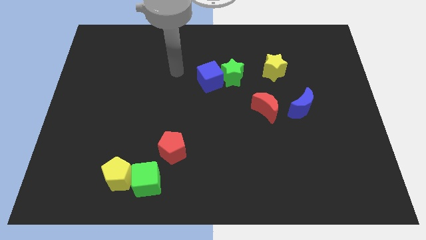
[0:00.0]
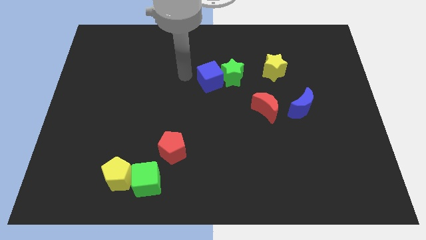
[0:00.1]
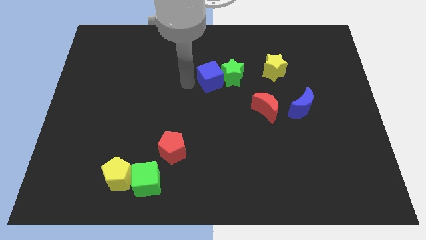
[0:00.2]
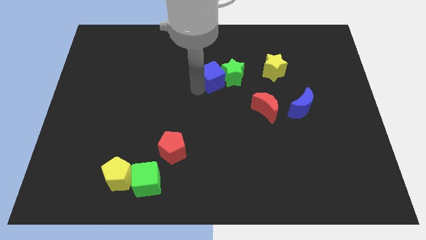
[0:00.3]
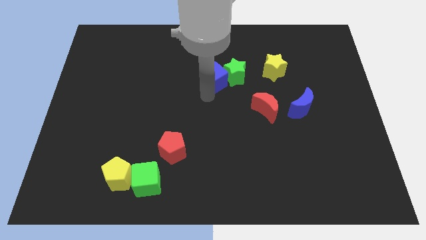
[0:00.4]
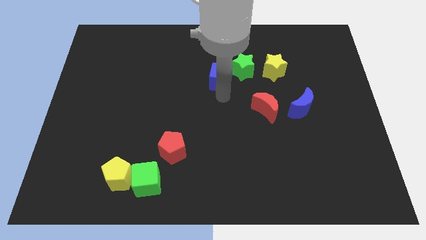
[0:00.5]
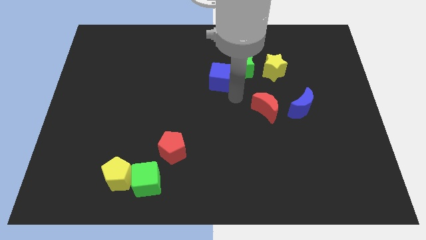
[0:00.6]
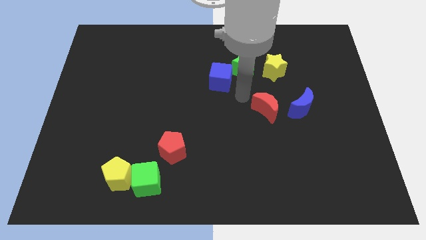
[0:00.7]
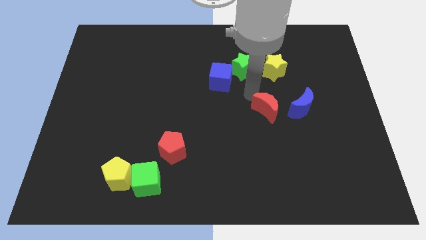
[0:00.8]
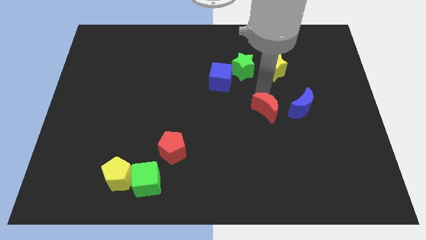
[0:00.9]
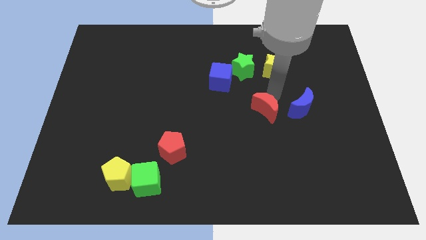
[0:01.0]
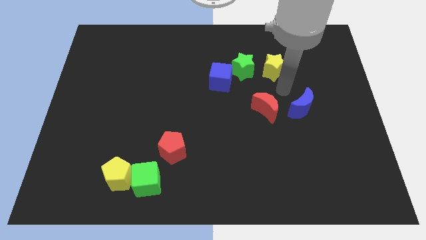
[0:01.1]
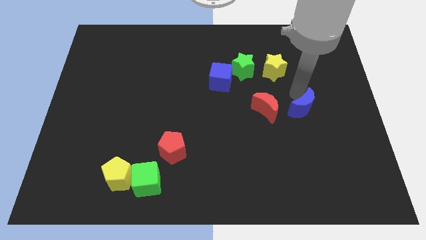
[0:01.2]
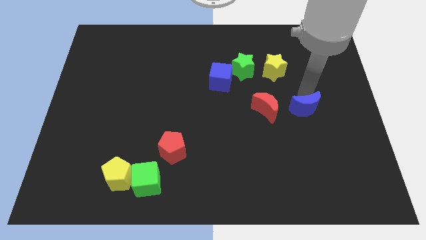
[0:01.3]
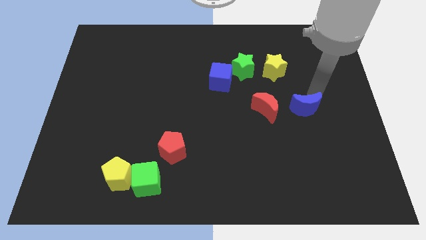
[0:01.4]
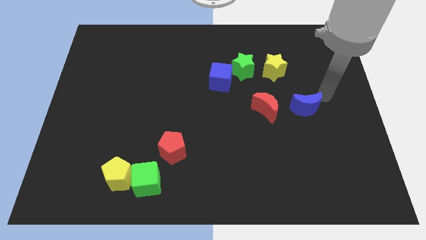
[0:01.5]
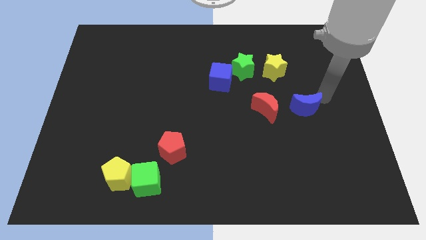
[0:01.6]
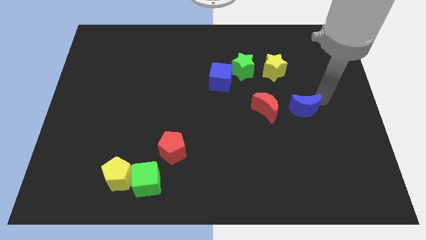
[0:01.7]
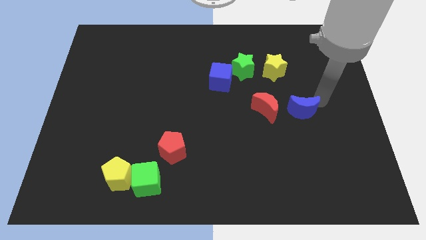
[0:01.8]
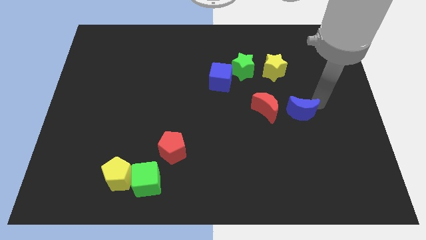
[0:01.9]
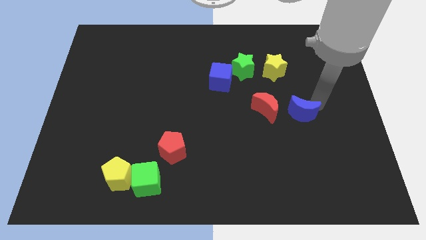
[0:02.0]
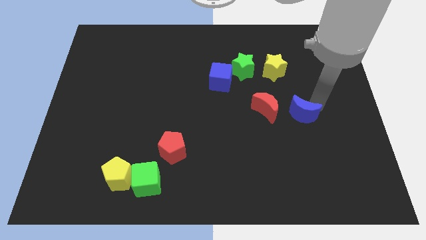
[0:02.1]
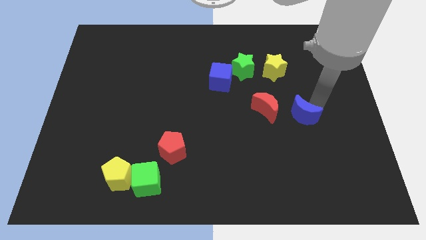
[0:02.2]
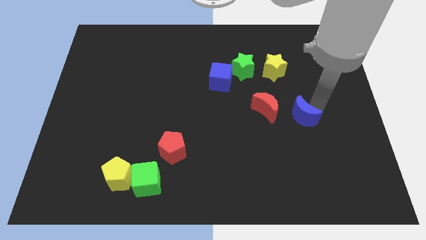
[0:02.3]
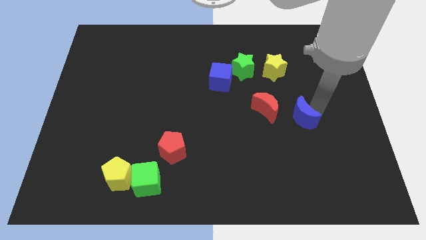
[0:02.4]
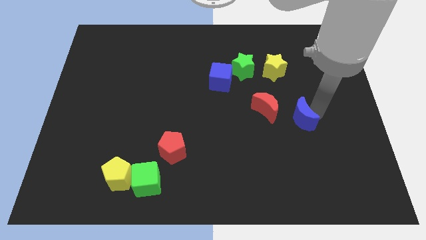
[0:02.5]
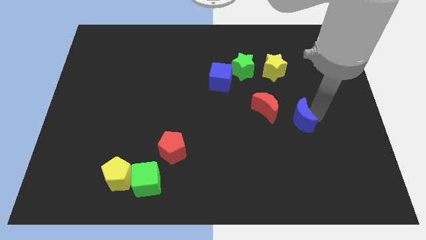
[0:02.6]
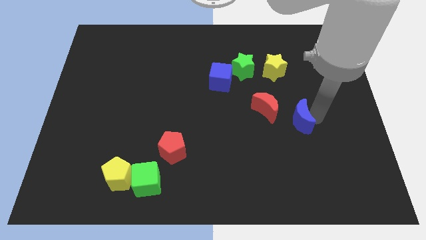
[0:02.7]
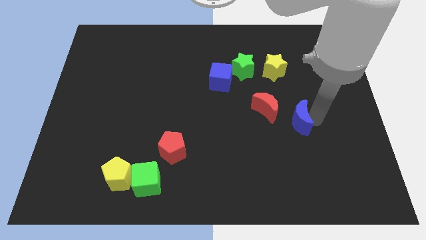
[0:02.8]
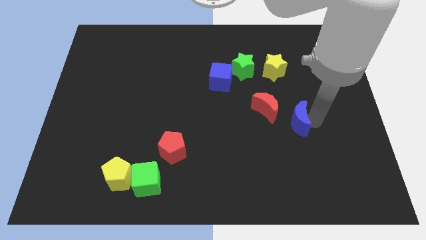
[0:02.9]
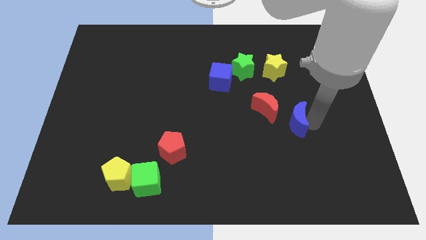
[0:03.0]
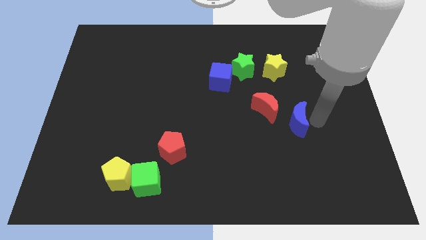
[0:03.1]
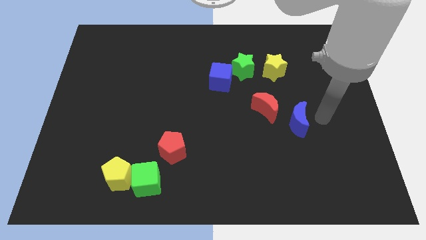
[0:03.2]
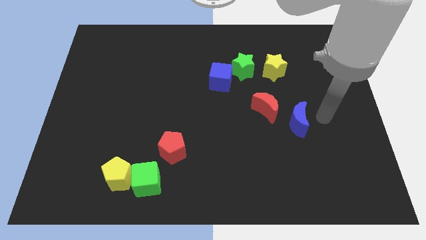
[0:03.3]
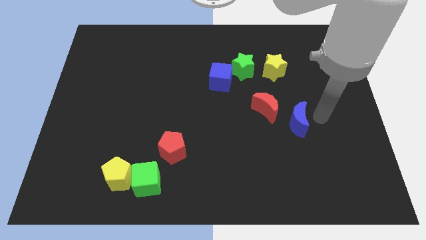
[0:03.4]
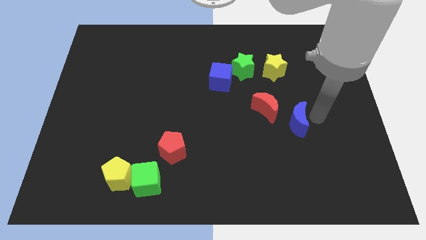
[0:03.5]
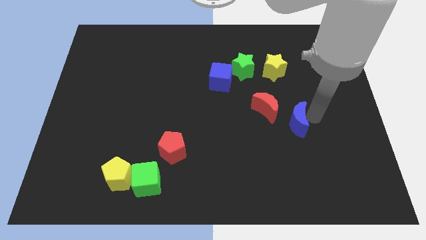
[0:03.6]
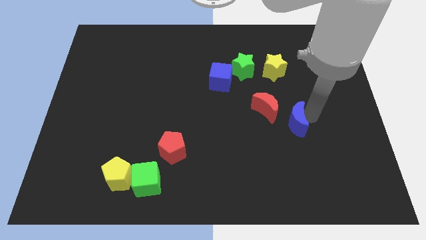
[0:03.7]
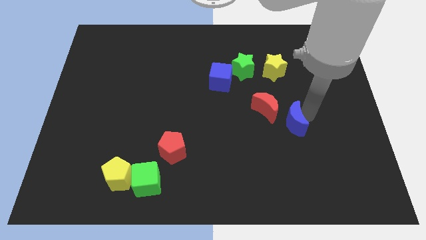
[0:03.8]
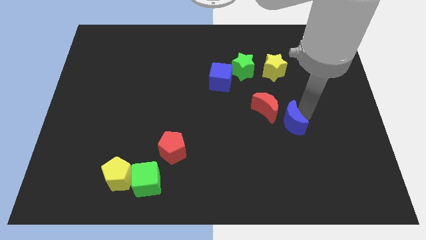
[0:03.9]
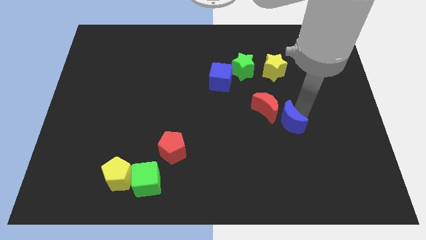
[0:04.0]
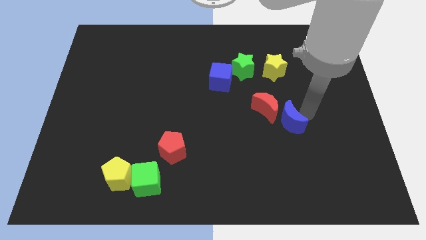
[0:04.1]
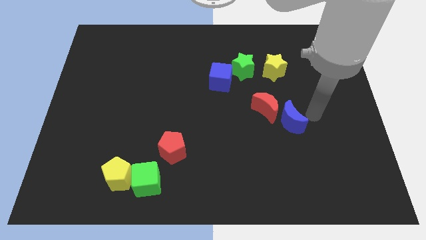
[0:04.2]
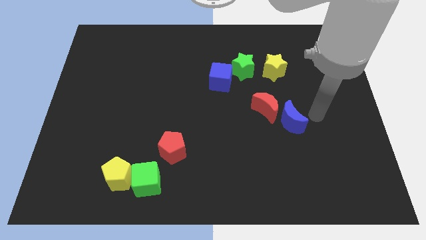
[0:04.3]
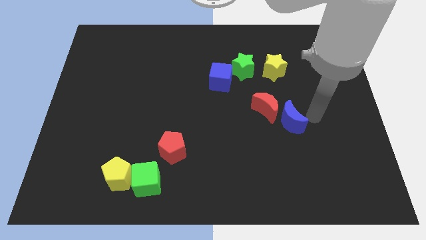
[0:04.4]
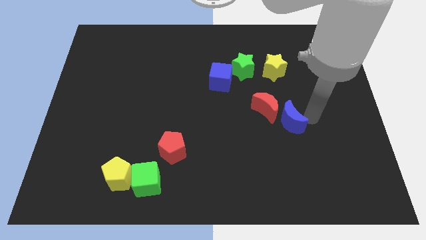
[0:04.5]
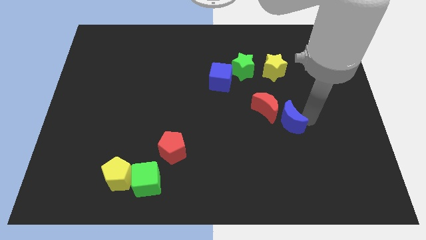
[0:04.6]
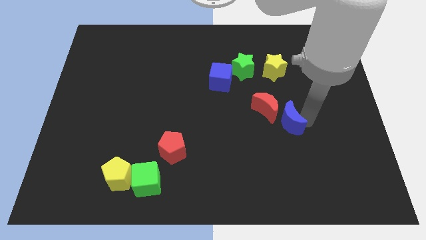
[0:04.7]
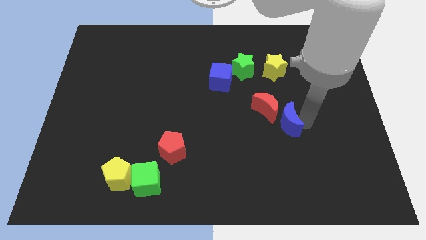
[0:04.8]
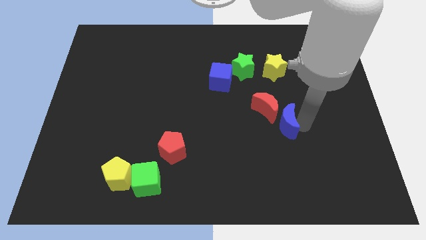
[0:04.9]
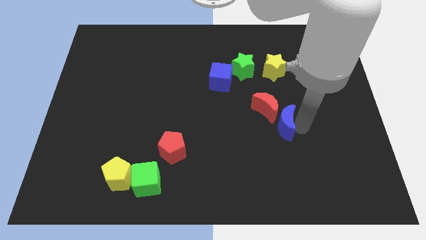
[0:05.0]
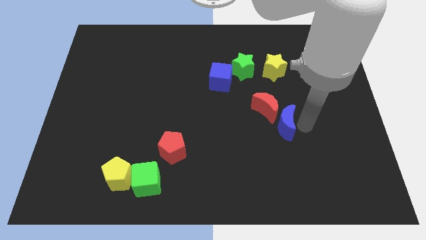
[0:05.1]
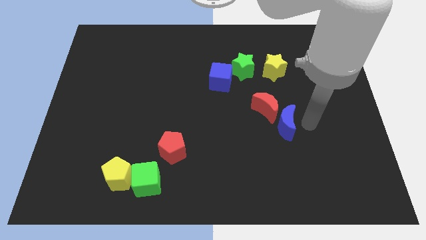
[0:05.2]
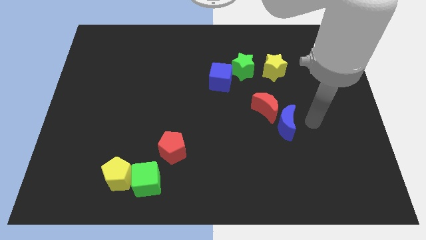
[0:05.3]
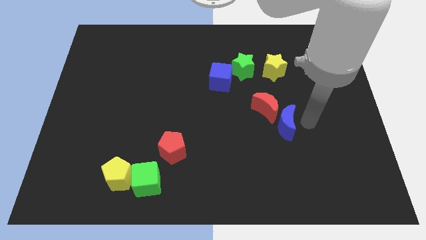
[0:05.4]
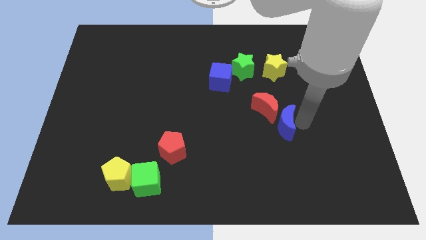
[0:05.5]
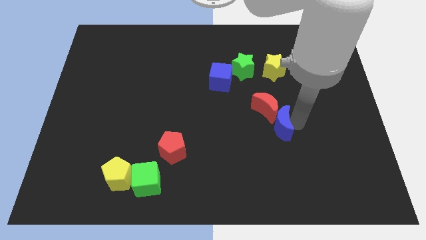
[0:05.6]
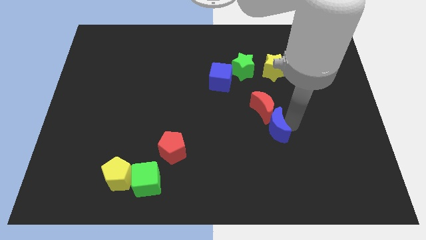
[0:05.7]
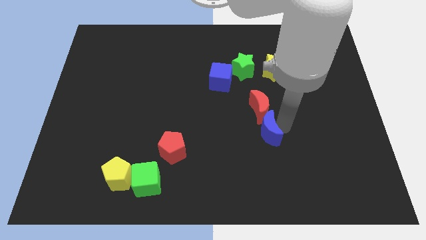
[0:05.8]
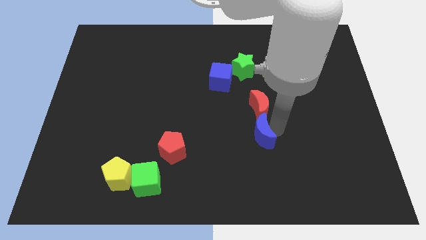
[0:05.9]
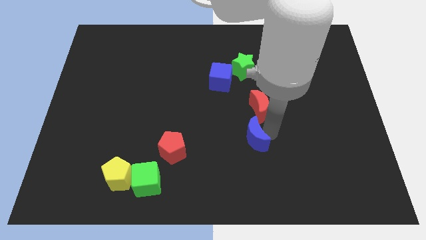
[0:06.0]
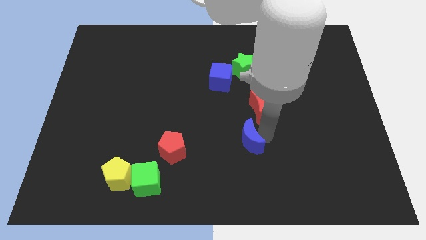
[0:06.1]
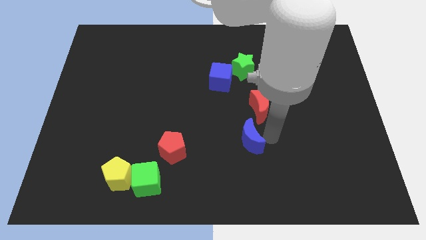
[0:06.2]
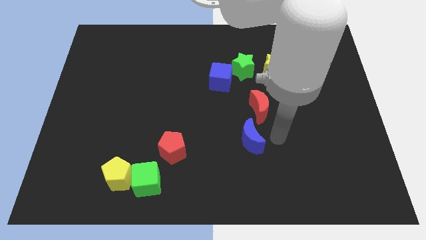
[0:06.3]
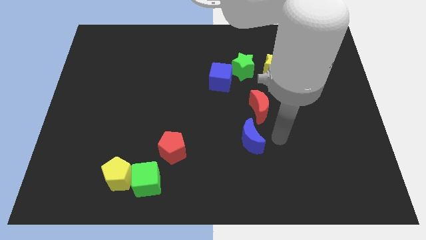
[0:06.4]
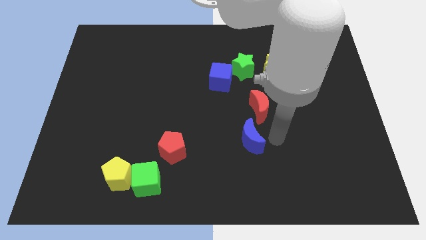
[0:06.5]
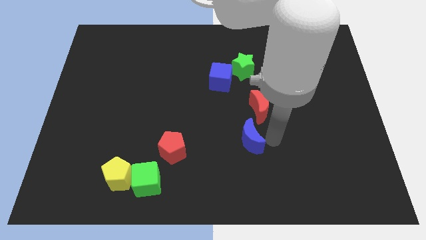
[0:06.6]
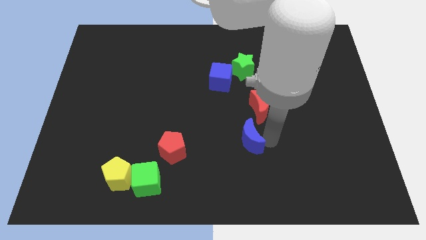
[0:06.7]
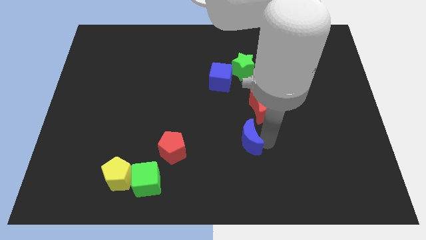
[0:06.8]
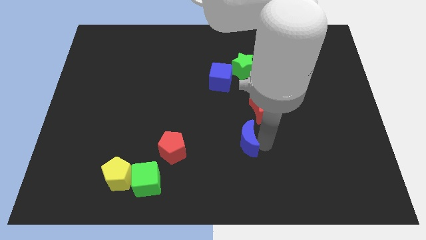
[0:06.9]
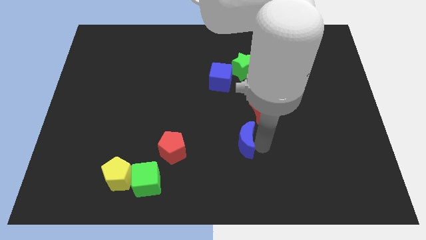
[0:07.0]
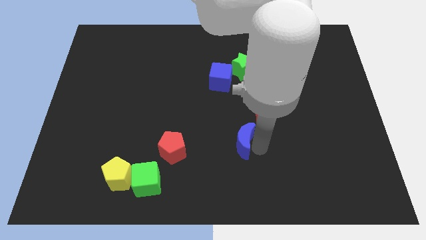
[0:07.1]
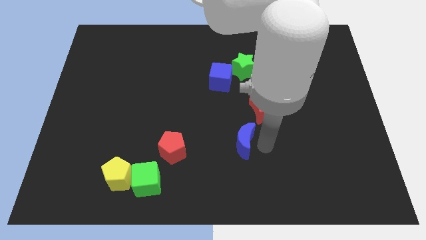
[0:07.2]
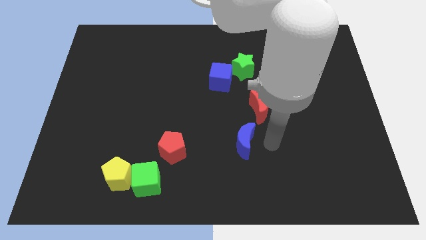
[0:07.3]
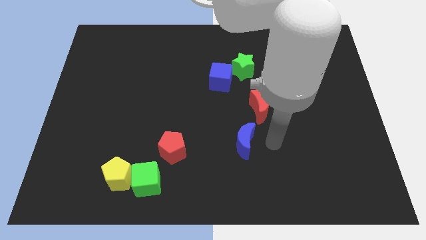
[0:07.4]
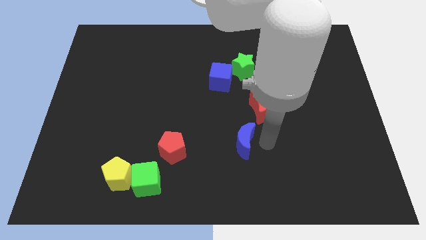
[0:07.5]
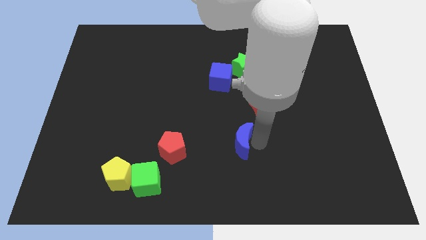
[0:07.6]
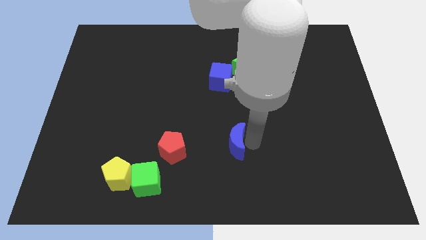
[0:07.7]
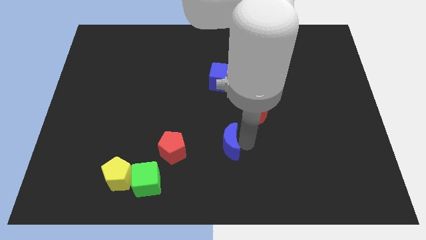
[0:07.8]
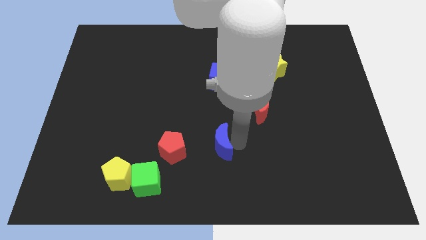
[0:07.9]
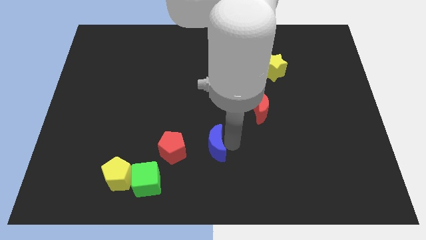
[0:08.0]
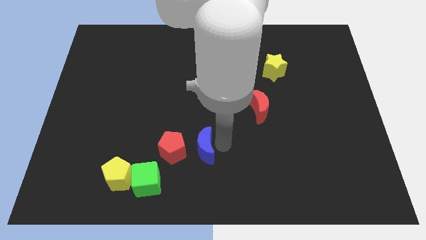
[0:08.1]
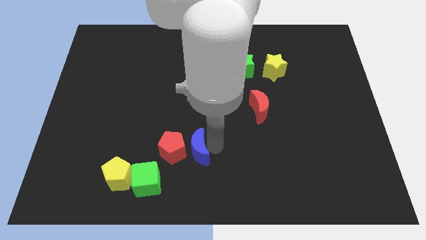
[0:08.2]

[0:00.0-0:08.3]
slide the blue moon towards the red pentagon

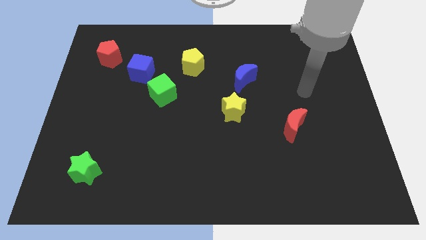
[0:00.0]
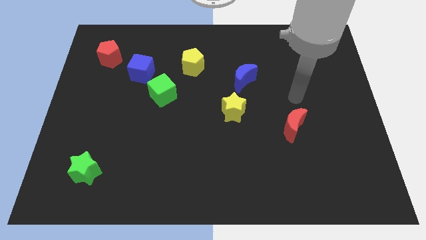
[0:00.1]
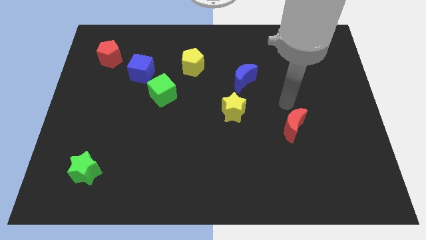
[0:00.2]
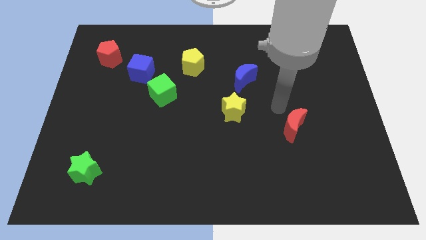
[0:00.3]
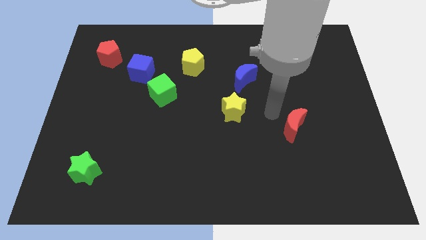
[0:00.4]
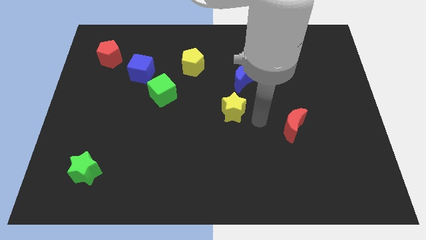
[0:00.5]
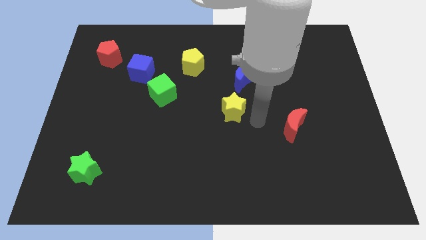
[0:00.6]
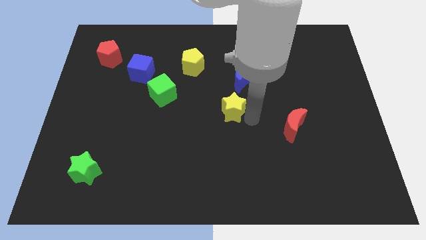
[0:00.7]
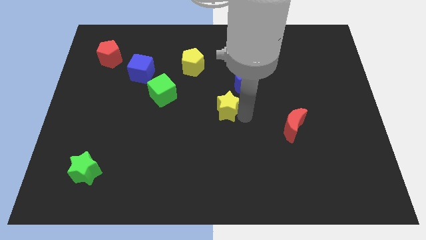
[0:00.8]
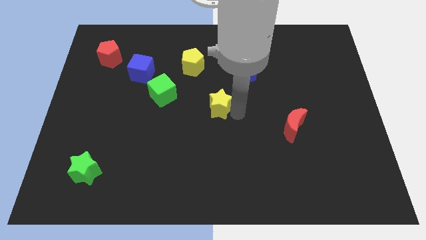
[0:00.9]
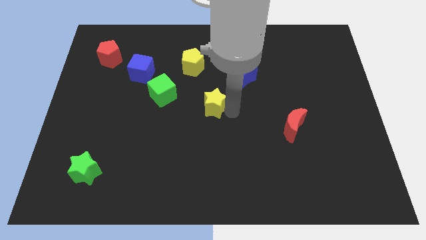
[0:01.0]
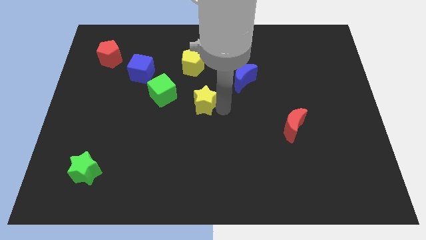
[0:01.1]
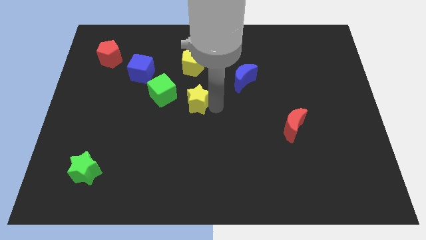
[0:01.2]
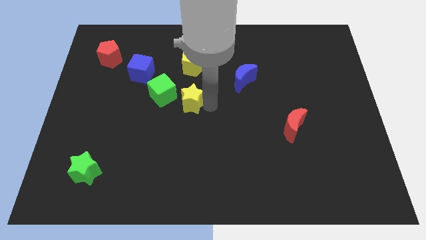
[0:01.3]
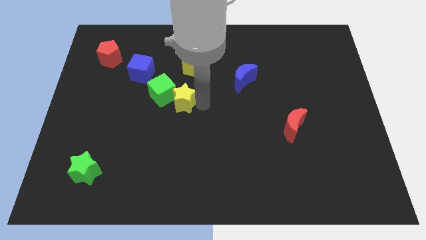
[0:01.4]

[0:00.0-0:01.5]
move the yellow star to the green cube
